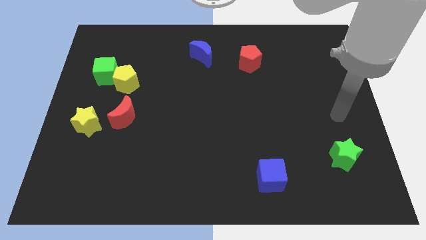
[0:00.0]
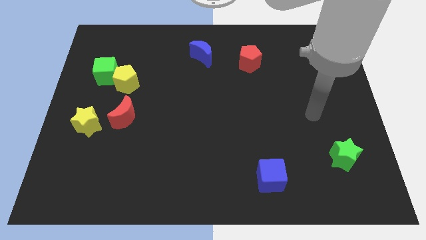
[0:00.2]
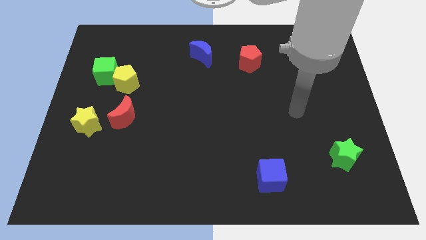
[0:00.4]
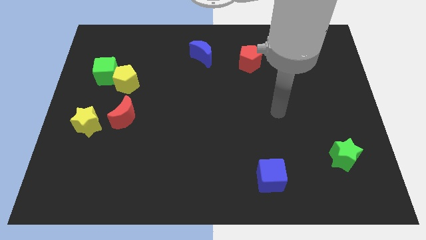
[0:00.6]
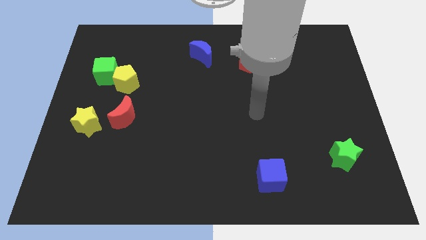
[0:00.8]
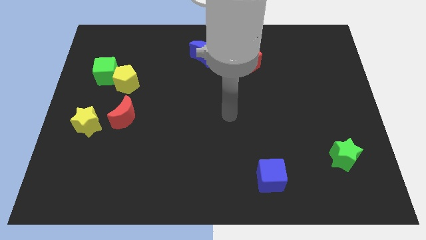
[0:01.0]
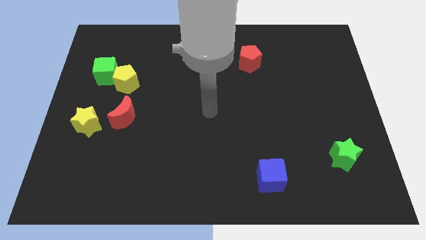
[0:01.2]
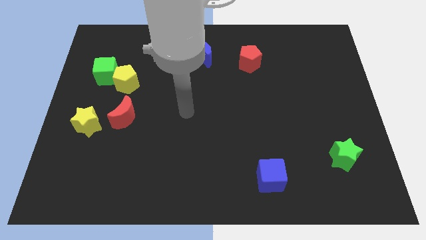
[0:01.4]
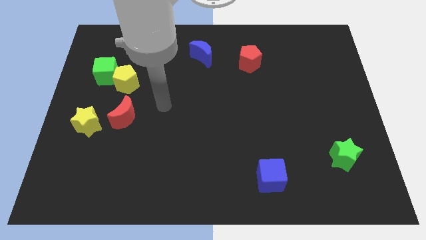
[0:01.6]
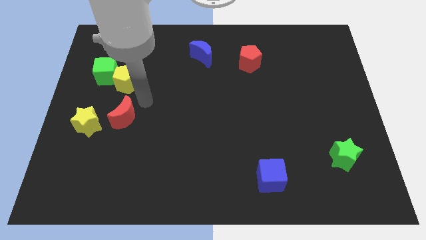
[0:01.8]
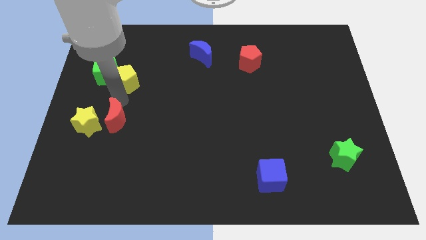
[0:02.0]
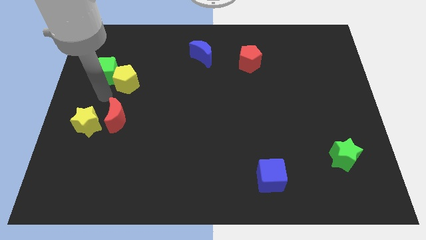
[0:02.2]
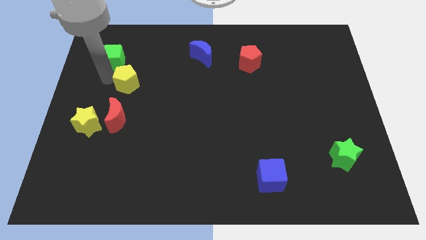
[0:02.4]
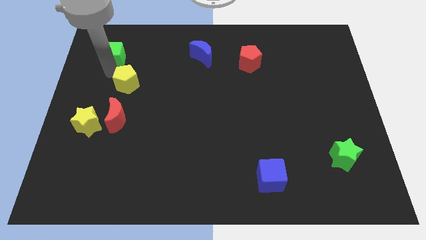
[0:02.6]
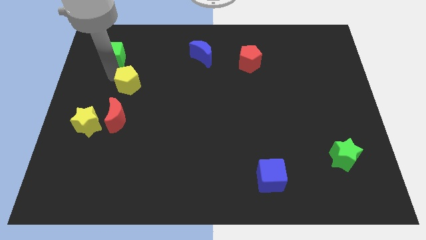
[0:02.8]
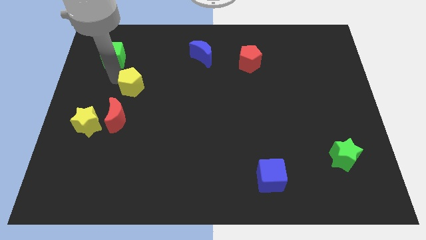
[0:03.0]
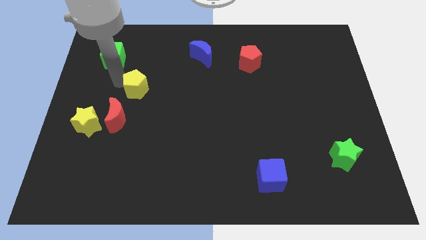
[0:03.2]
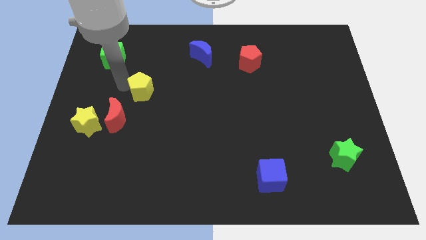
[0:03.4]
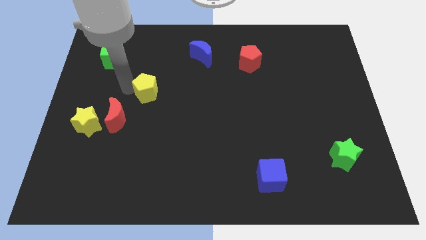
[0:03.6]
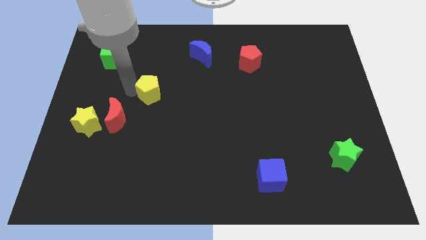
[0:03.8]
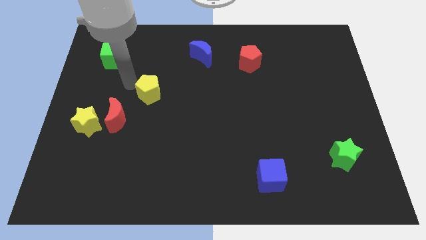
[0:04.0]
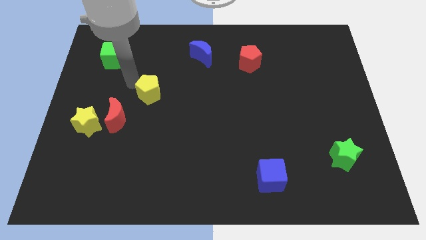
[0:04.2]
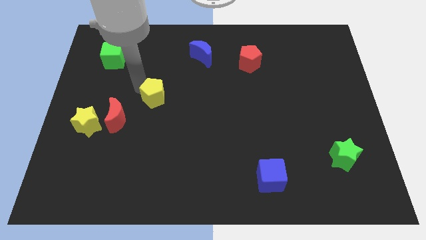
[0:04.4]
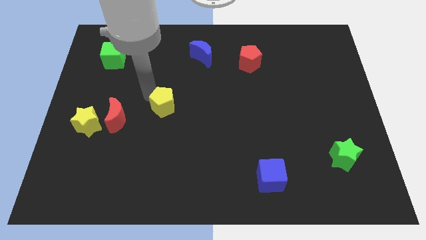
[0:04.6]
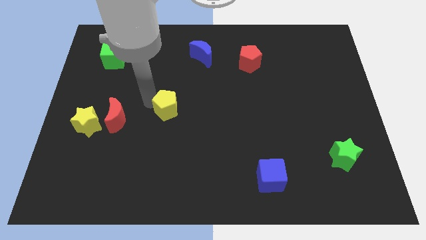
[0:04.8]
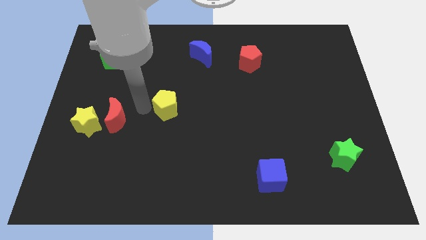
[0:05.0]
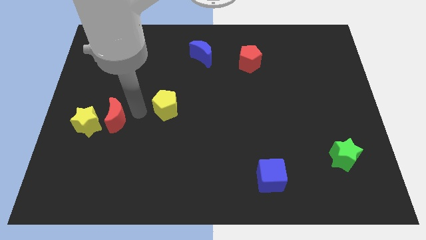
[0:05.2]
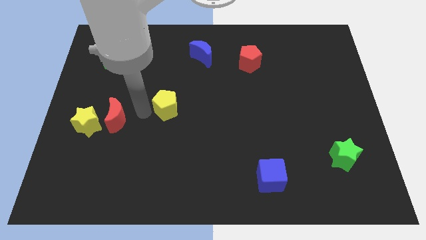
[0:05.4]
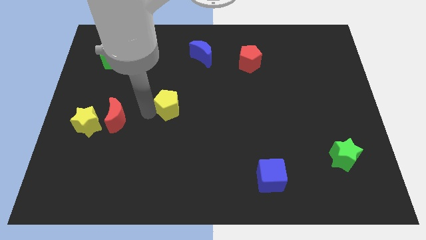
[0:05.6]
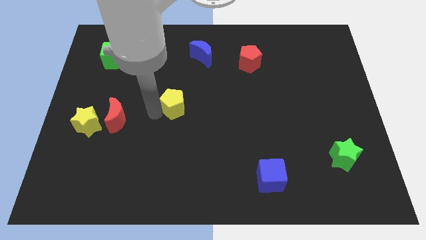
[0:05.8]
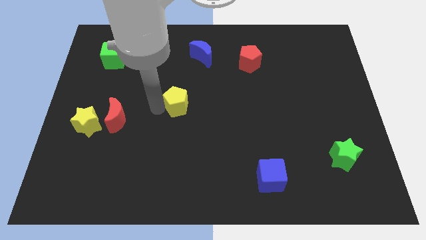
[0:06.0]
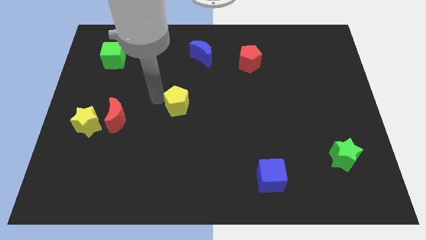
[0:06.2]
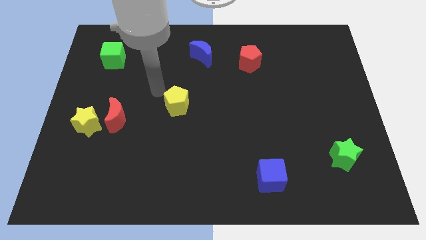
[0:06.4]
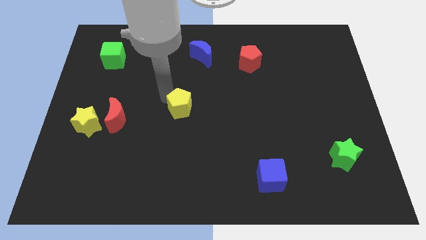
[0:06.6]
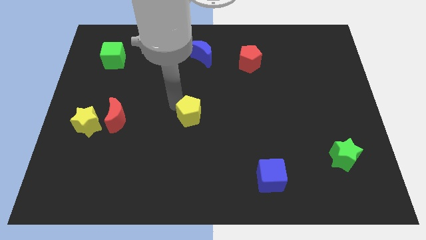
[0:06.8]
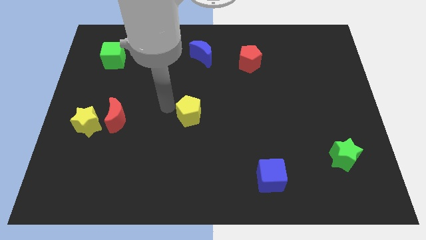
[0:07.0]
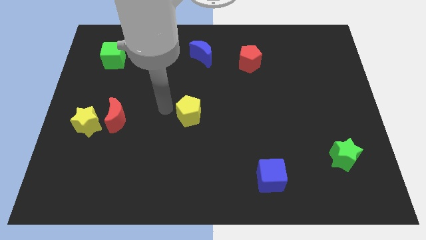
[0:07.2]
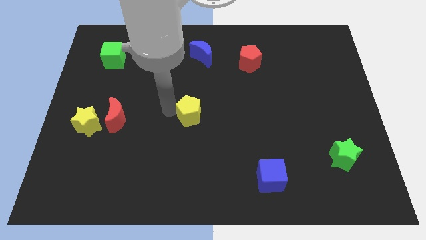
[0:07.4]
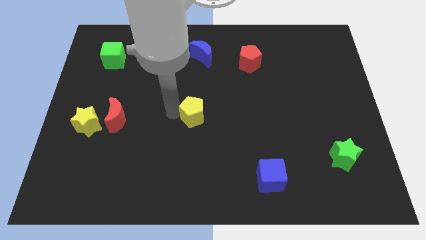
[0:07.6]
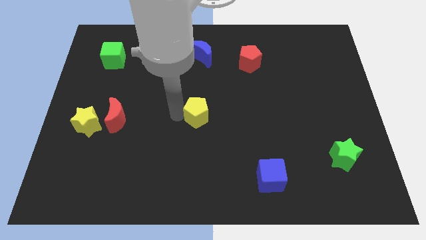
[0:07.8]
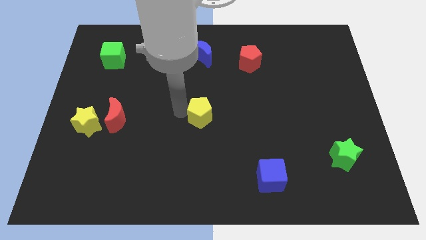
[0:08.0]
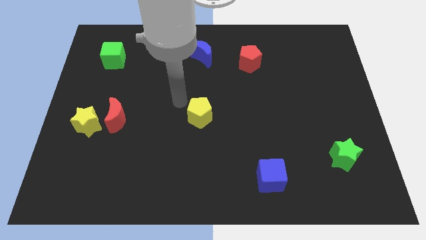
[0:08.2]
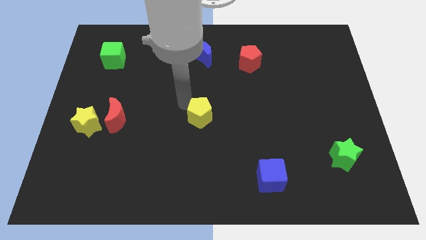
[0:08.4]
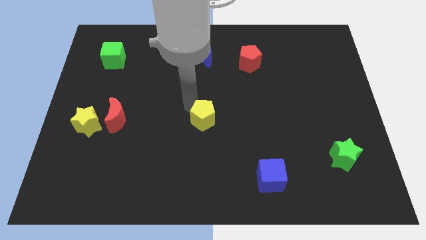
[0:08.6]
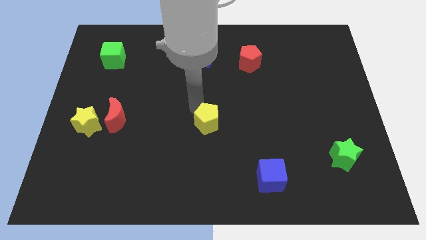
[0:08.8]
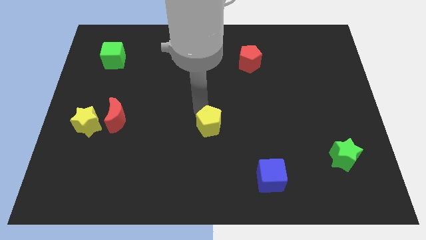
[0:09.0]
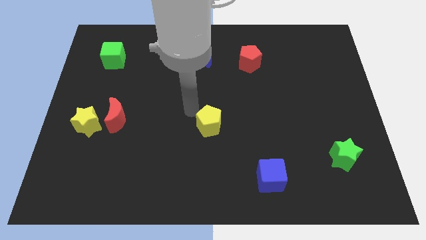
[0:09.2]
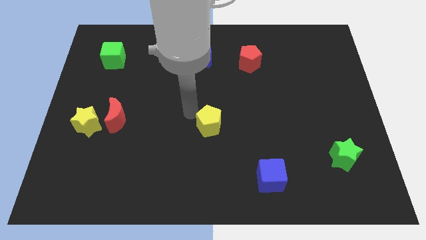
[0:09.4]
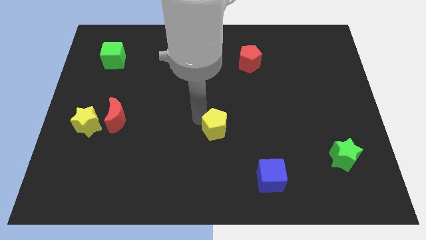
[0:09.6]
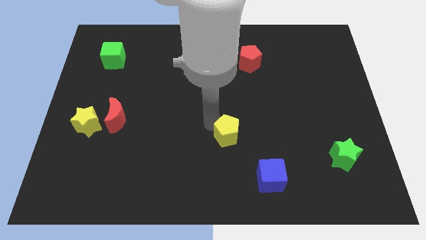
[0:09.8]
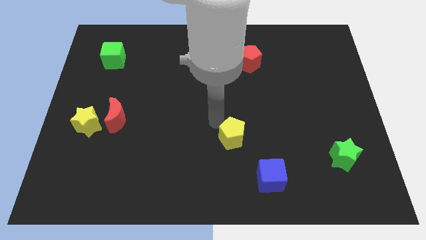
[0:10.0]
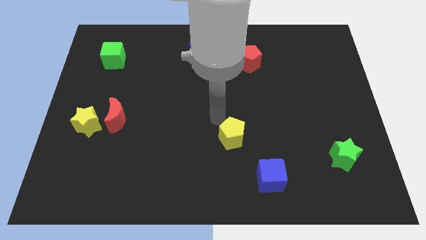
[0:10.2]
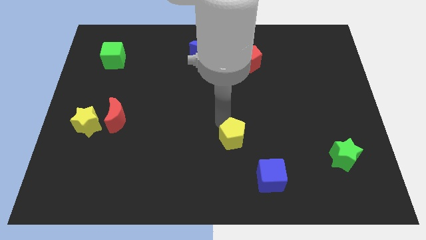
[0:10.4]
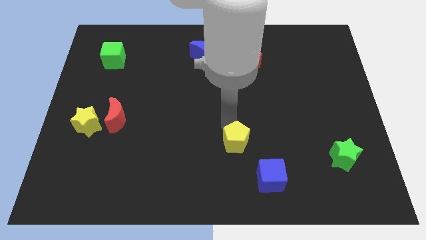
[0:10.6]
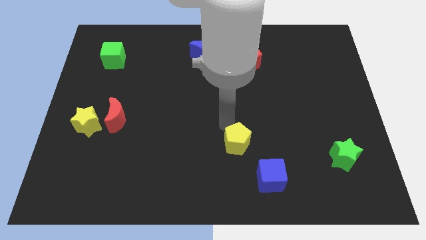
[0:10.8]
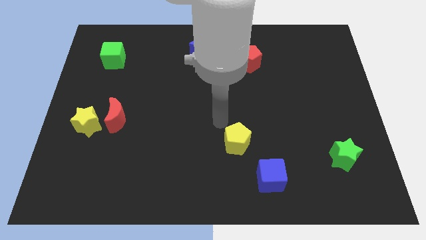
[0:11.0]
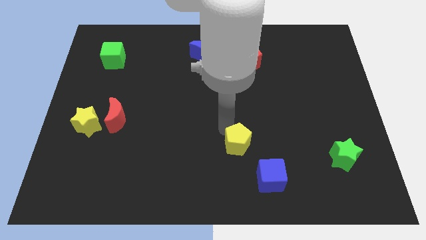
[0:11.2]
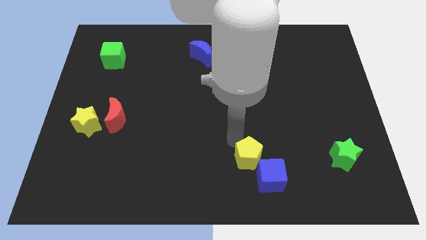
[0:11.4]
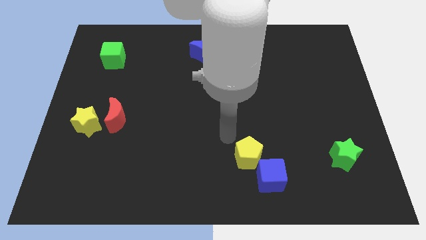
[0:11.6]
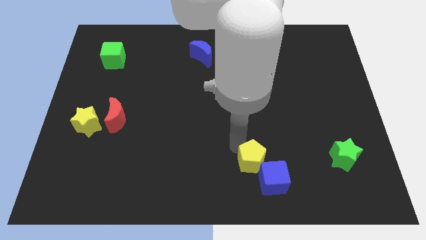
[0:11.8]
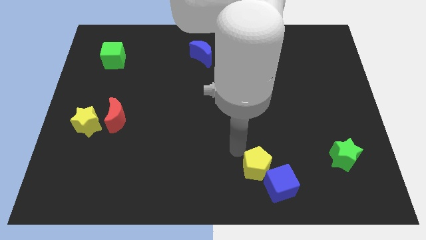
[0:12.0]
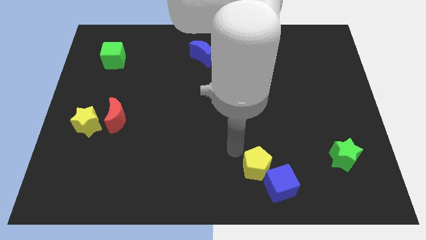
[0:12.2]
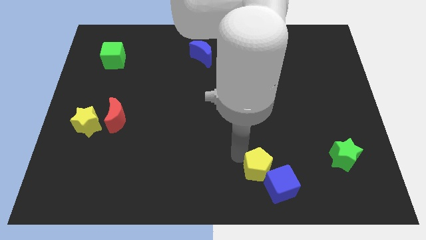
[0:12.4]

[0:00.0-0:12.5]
push the yellow pentagon close to the blue cube

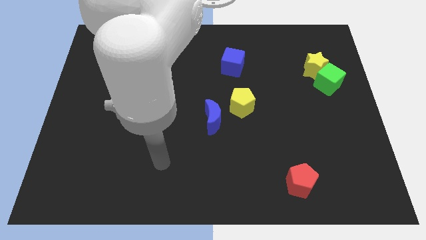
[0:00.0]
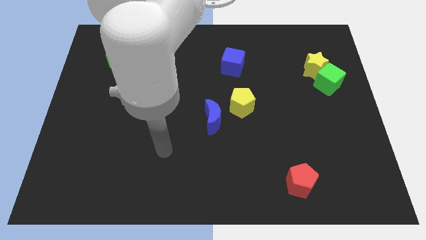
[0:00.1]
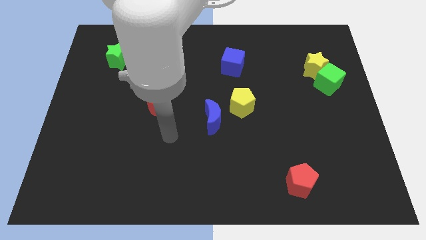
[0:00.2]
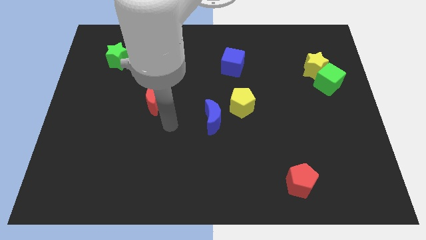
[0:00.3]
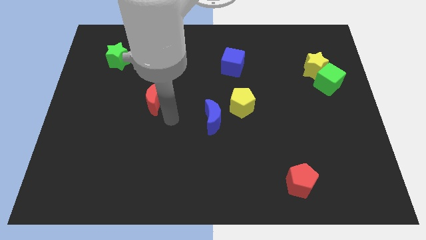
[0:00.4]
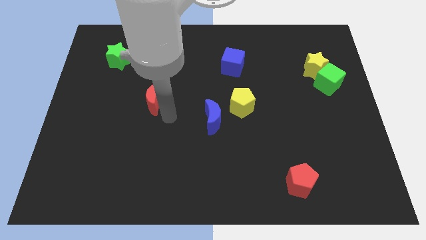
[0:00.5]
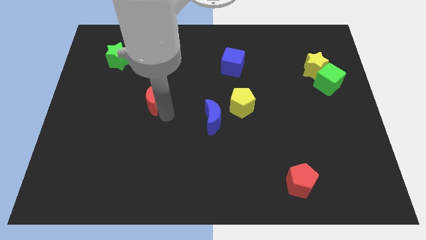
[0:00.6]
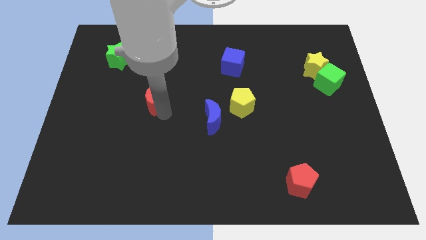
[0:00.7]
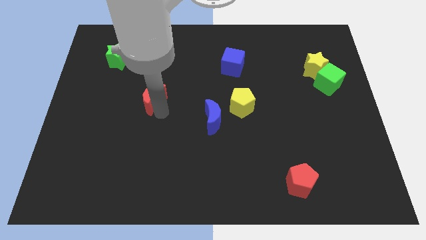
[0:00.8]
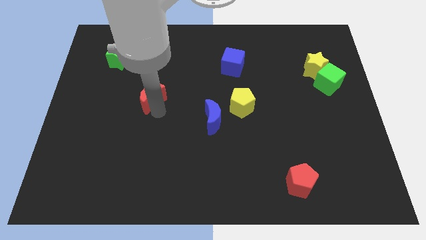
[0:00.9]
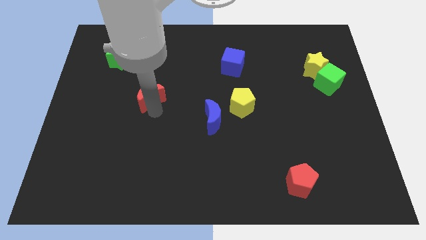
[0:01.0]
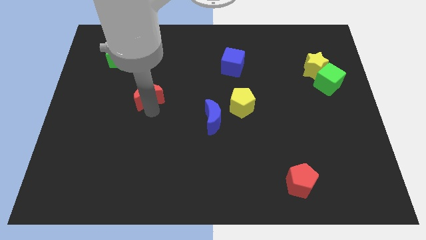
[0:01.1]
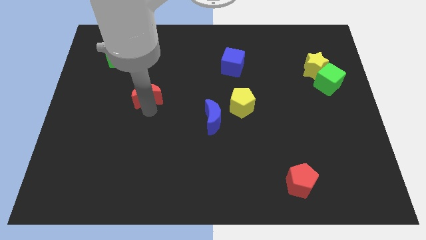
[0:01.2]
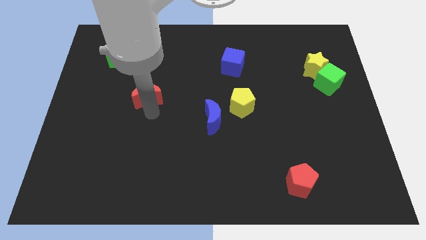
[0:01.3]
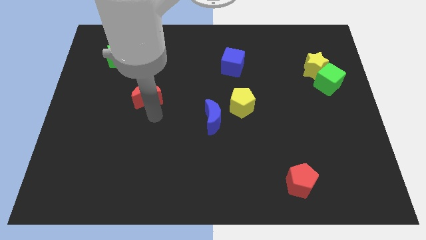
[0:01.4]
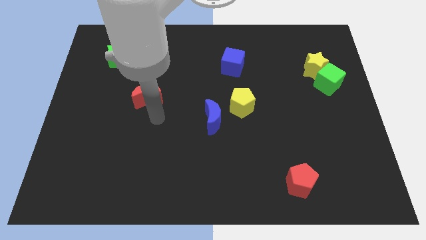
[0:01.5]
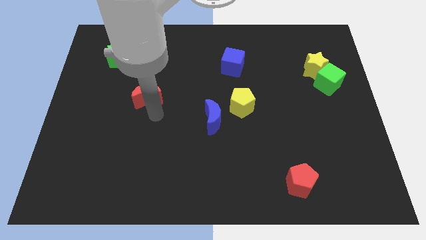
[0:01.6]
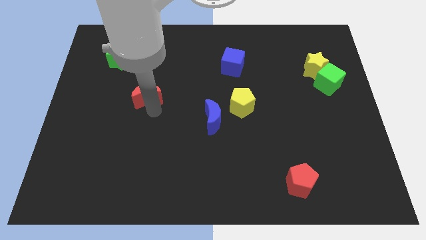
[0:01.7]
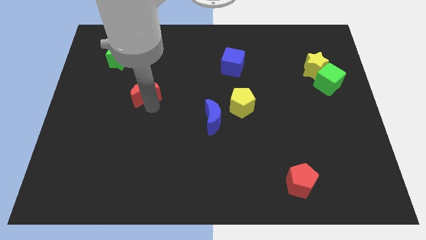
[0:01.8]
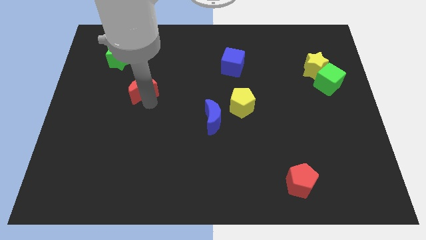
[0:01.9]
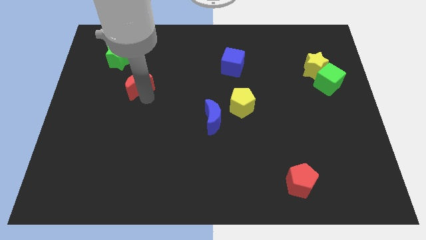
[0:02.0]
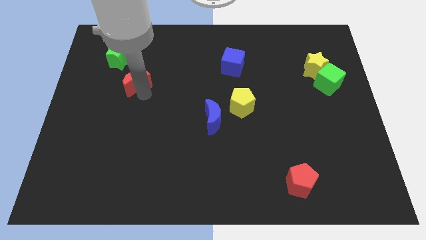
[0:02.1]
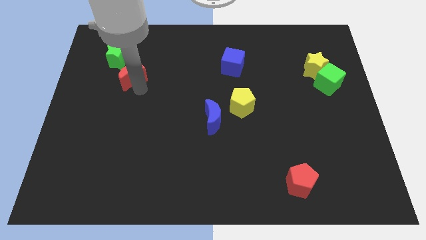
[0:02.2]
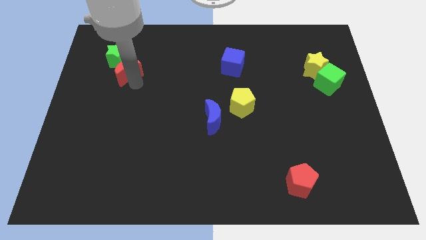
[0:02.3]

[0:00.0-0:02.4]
slide the red moon close to the green star
